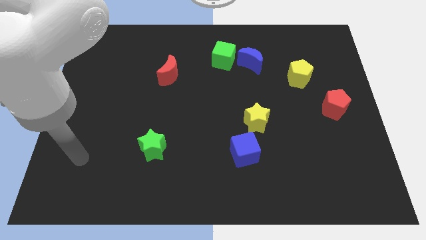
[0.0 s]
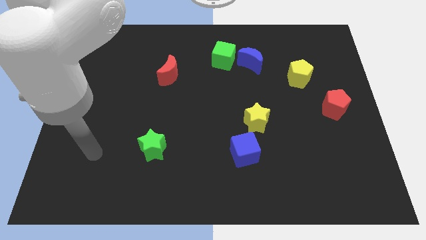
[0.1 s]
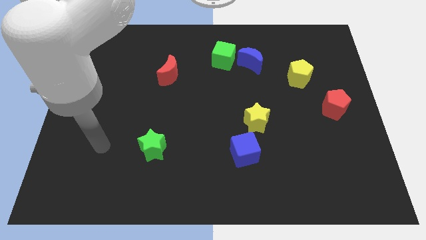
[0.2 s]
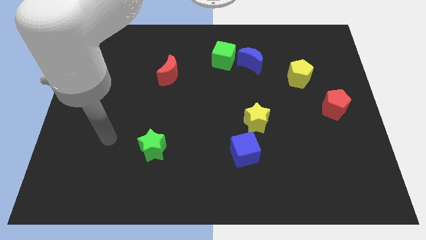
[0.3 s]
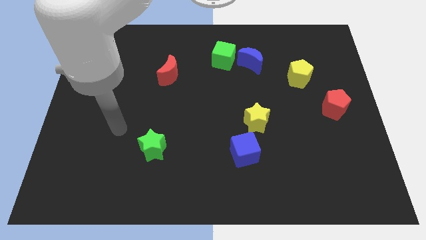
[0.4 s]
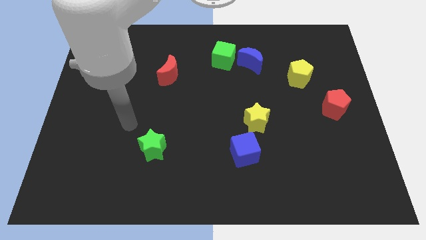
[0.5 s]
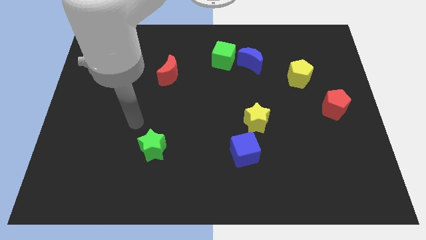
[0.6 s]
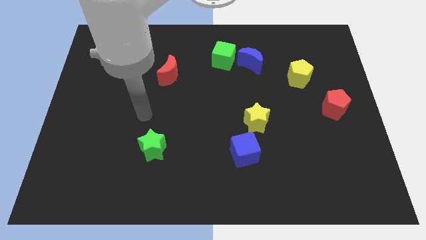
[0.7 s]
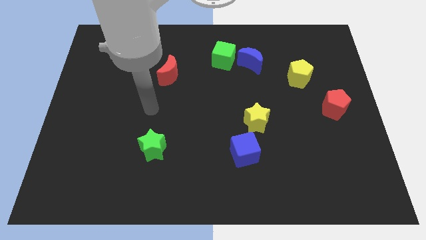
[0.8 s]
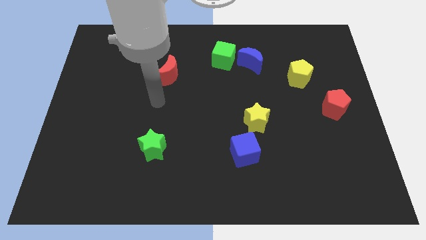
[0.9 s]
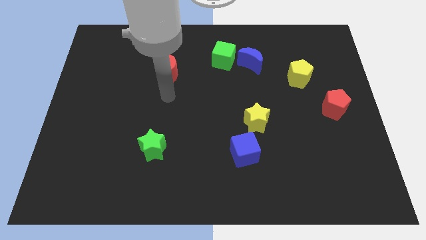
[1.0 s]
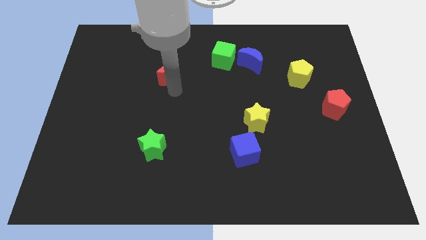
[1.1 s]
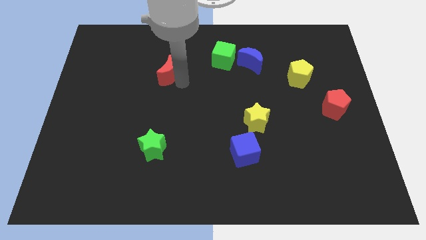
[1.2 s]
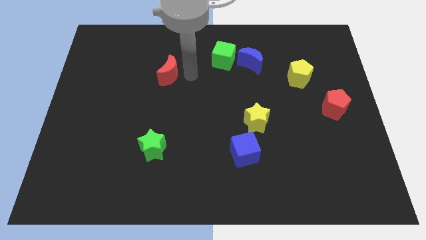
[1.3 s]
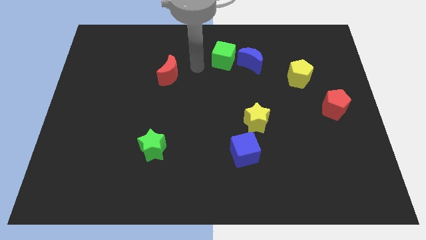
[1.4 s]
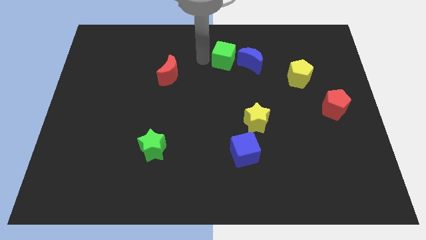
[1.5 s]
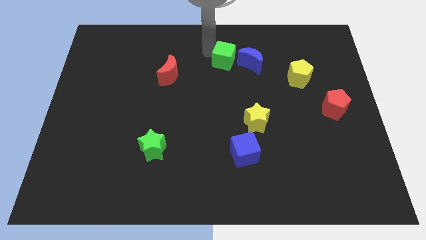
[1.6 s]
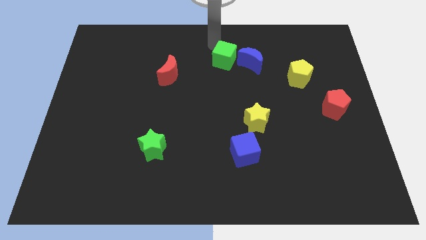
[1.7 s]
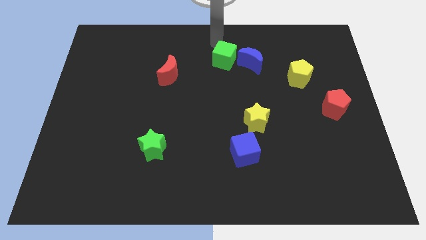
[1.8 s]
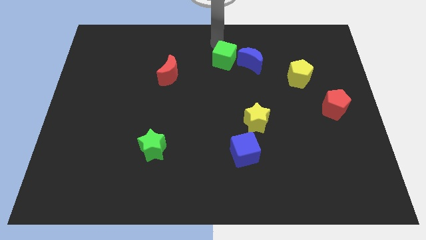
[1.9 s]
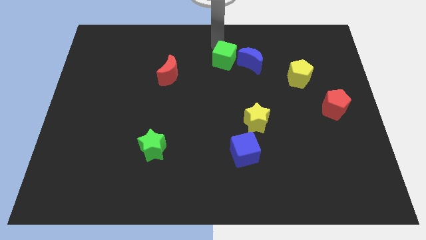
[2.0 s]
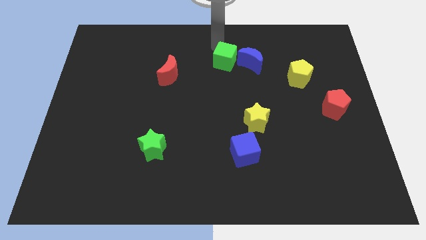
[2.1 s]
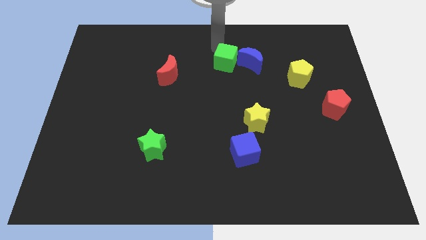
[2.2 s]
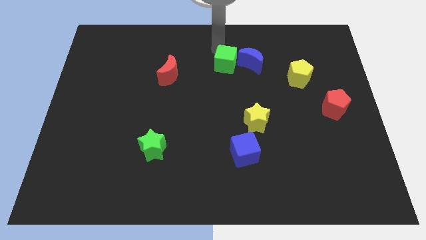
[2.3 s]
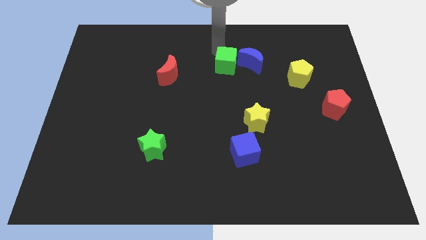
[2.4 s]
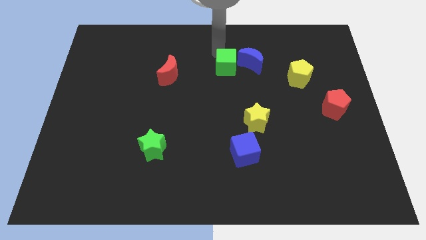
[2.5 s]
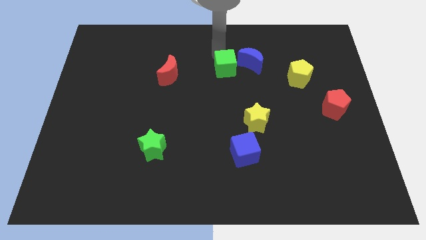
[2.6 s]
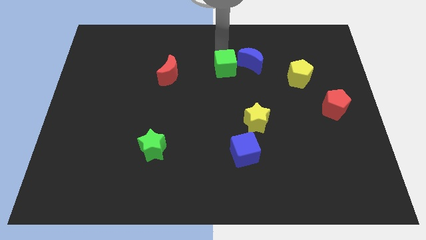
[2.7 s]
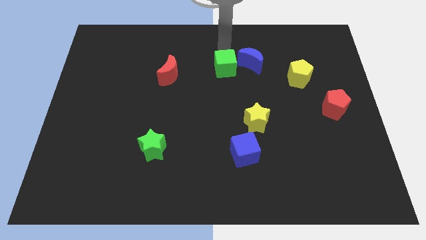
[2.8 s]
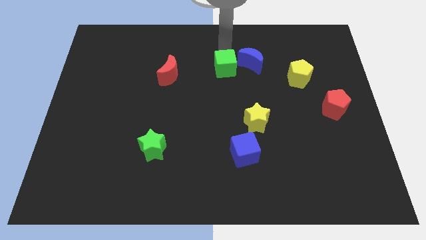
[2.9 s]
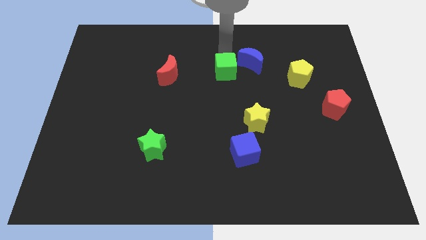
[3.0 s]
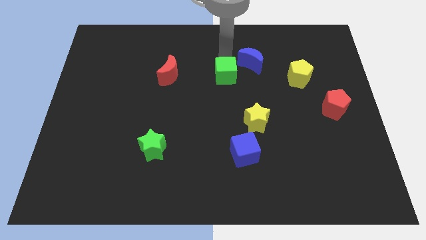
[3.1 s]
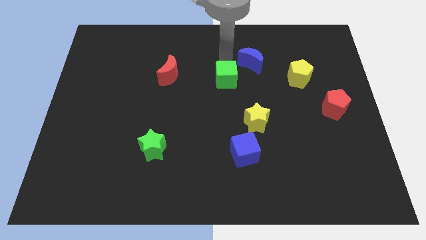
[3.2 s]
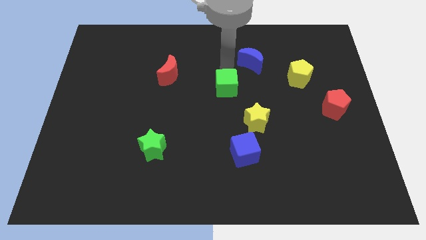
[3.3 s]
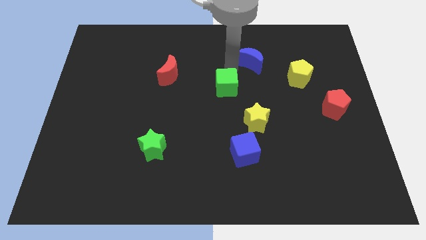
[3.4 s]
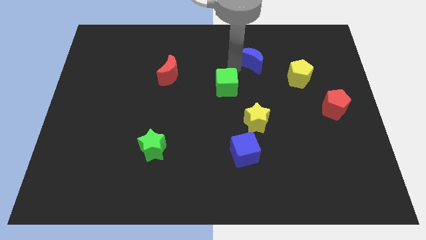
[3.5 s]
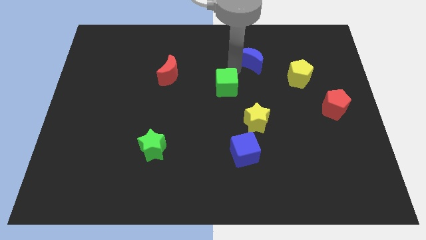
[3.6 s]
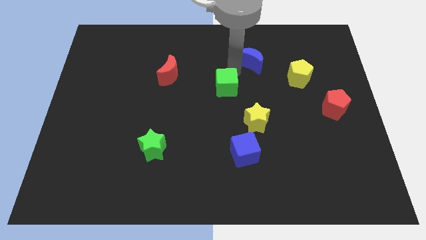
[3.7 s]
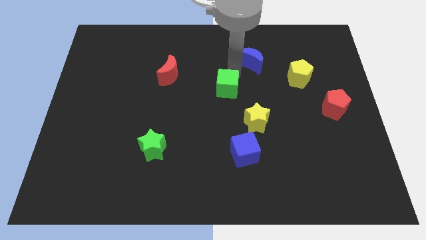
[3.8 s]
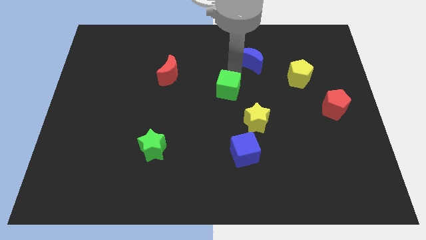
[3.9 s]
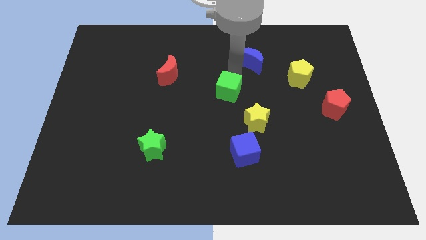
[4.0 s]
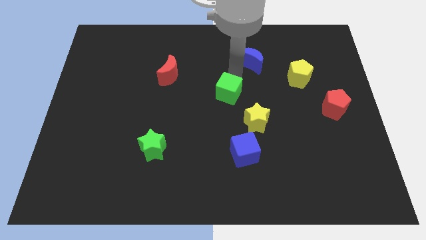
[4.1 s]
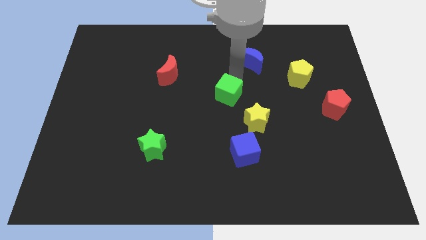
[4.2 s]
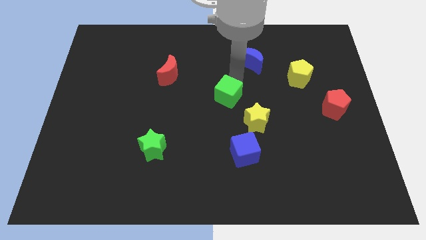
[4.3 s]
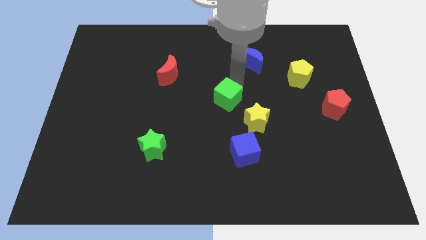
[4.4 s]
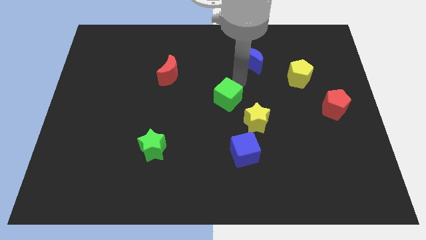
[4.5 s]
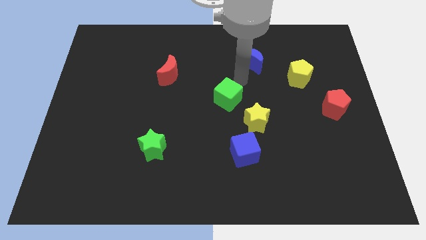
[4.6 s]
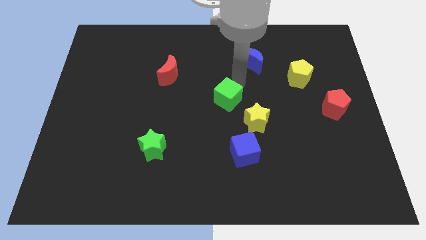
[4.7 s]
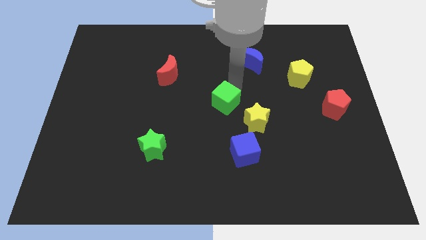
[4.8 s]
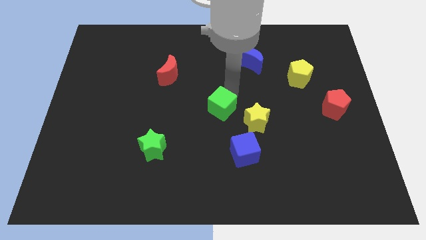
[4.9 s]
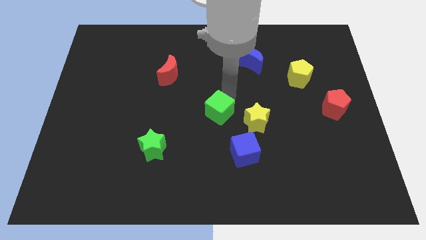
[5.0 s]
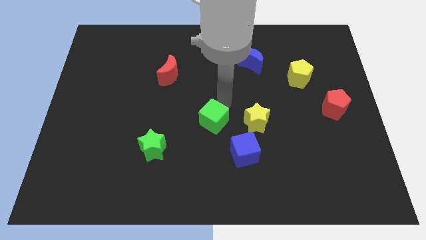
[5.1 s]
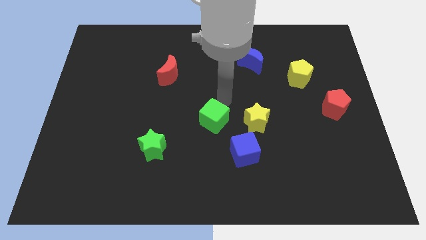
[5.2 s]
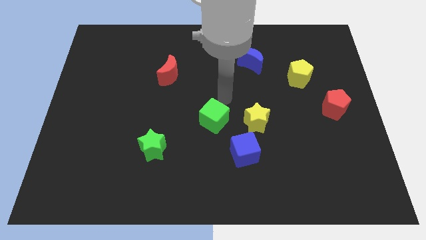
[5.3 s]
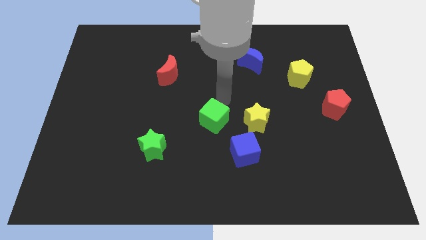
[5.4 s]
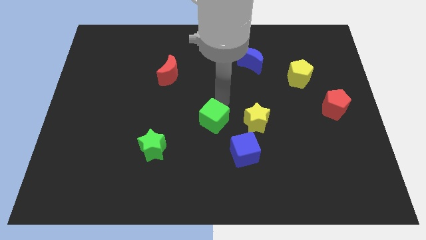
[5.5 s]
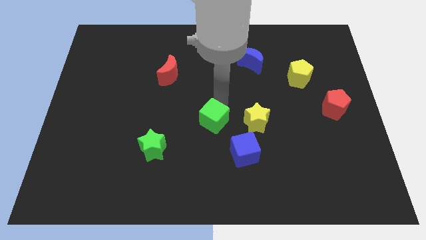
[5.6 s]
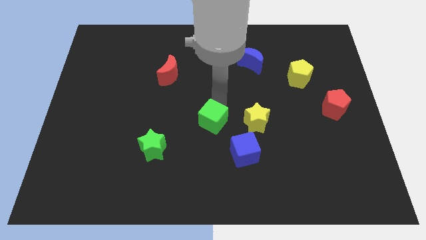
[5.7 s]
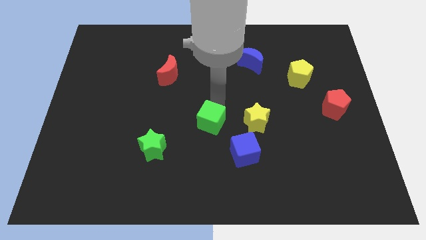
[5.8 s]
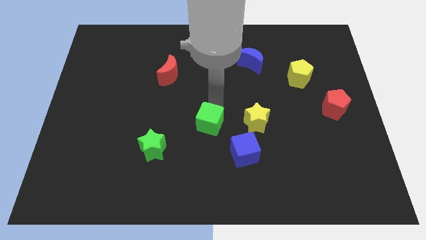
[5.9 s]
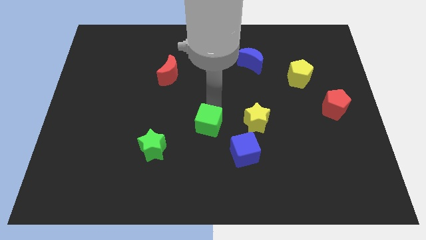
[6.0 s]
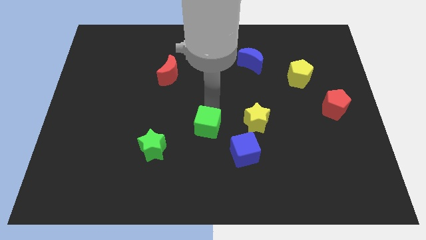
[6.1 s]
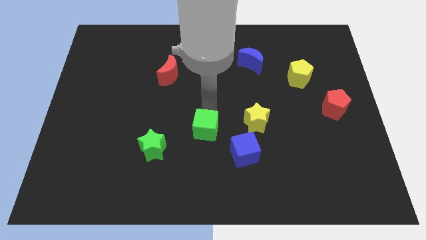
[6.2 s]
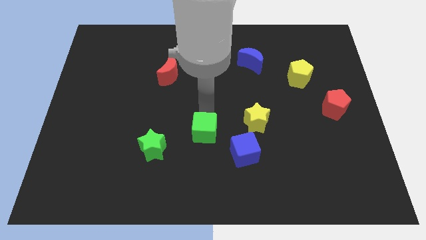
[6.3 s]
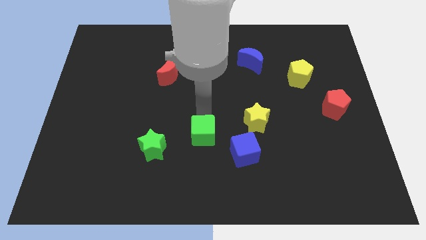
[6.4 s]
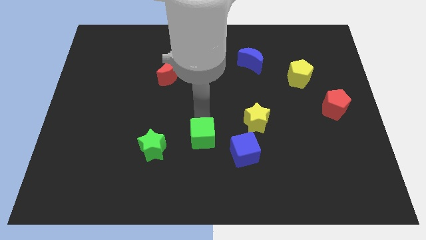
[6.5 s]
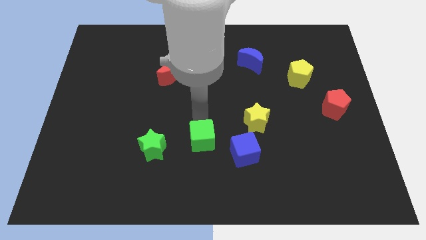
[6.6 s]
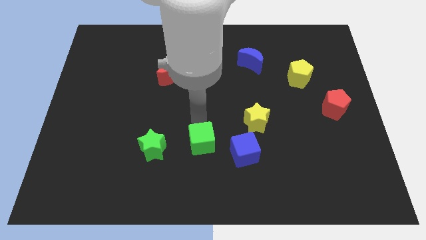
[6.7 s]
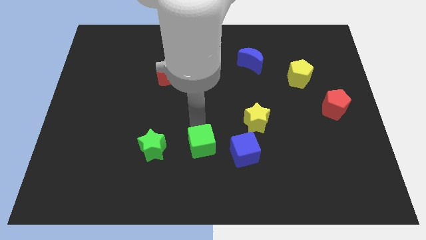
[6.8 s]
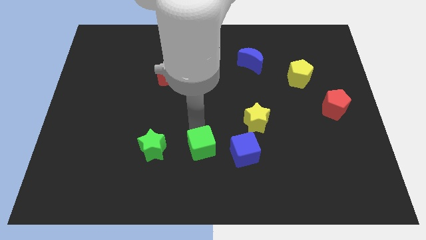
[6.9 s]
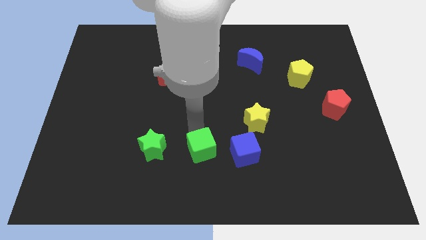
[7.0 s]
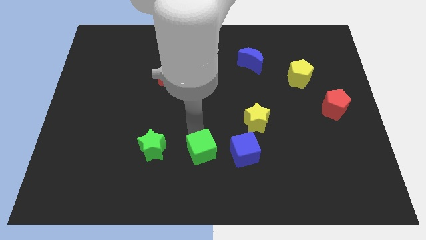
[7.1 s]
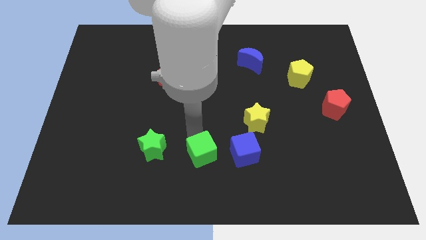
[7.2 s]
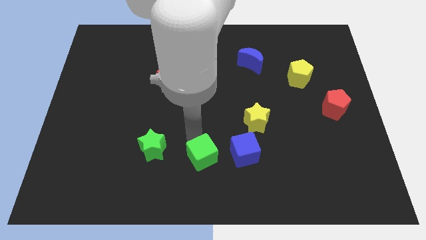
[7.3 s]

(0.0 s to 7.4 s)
move the green cube to the bottom side
